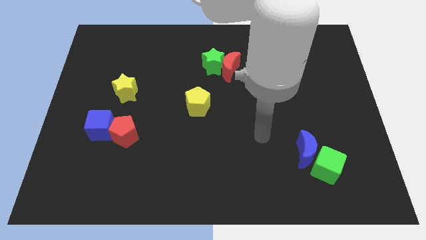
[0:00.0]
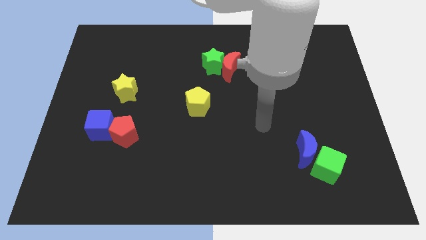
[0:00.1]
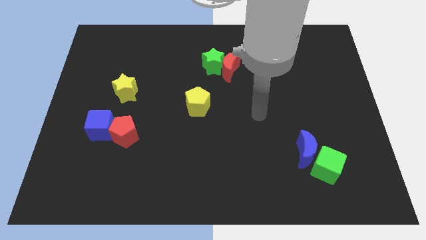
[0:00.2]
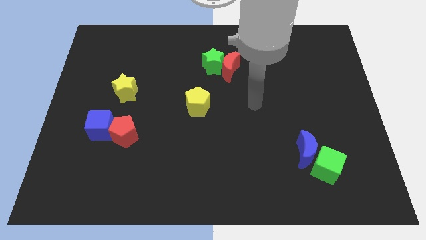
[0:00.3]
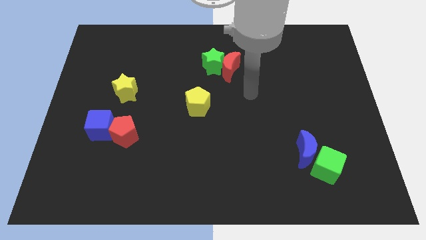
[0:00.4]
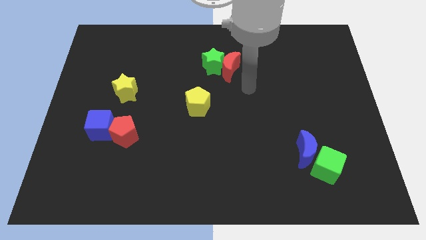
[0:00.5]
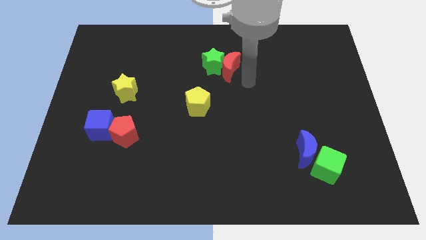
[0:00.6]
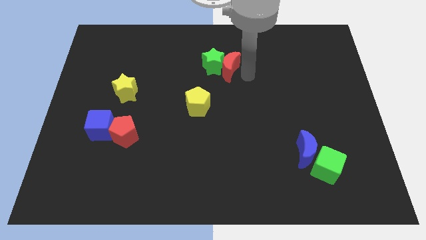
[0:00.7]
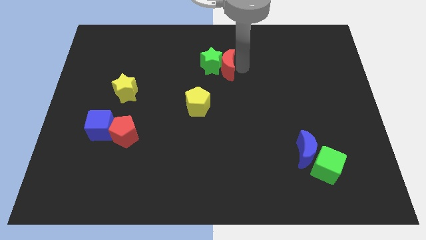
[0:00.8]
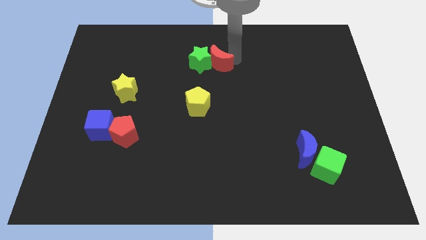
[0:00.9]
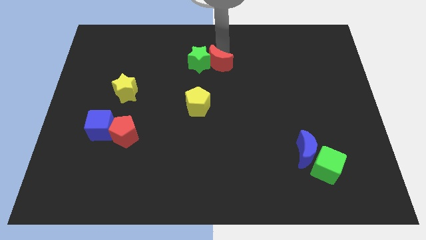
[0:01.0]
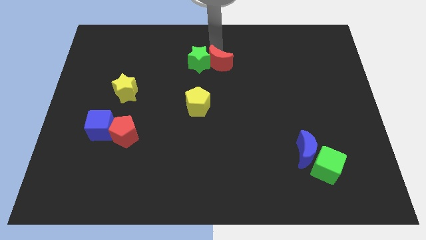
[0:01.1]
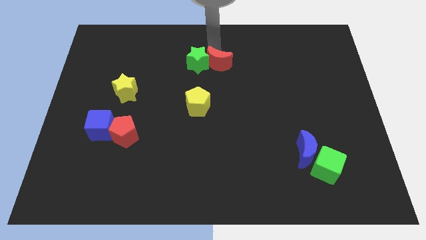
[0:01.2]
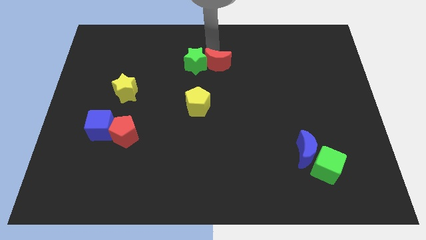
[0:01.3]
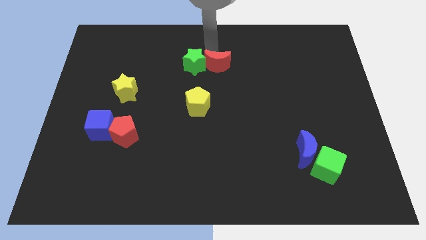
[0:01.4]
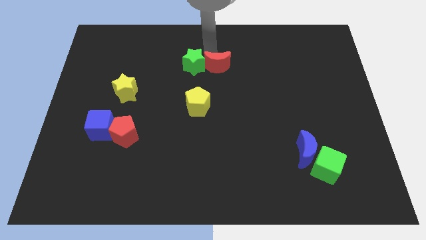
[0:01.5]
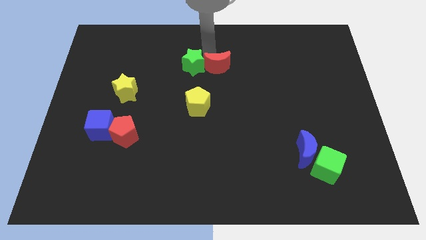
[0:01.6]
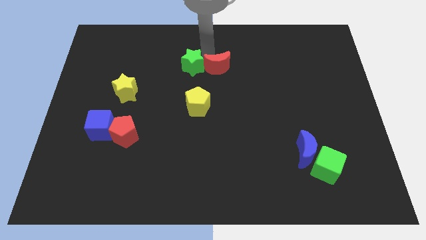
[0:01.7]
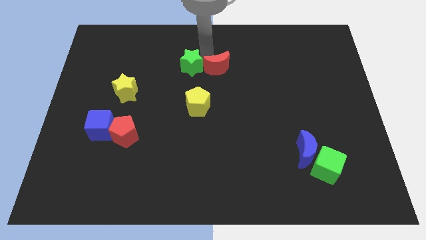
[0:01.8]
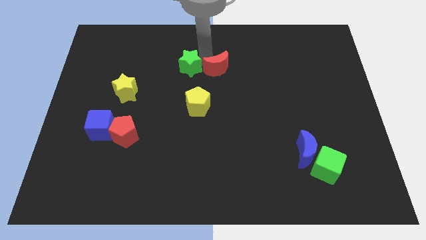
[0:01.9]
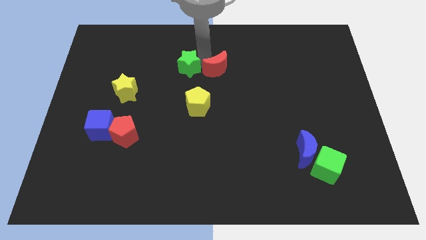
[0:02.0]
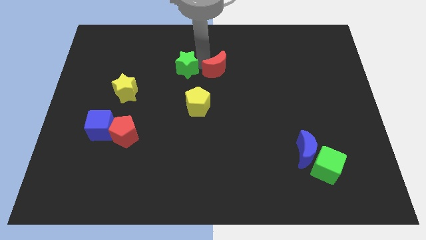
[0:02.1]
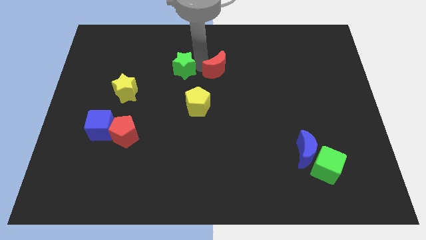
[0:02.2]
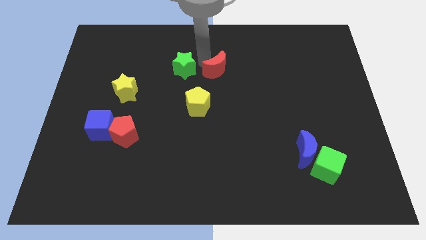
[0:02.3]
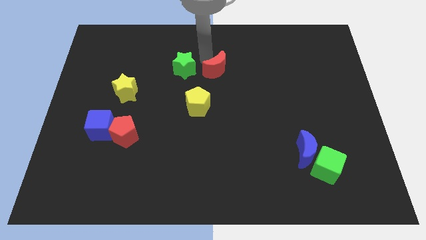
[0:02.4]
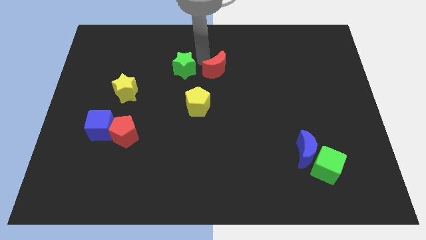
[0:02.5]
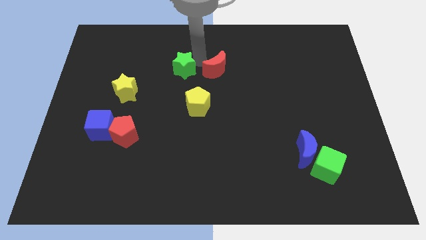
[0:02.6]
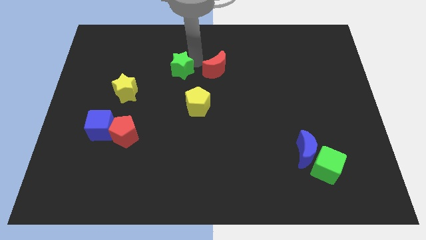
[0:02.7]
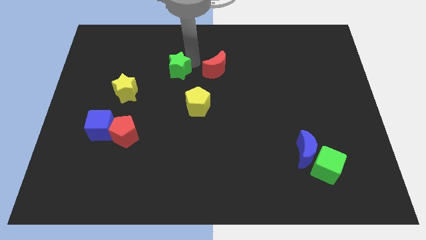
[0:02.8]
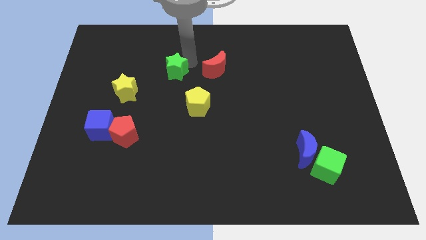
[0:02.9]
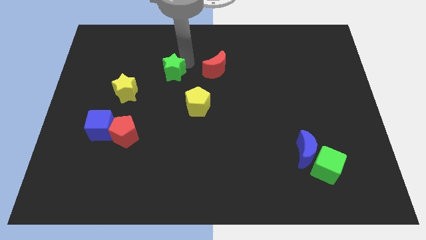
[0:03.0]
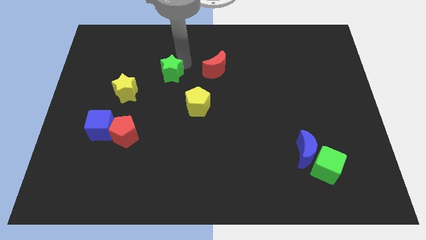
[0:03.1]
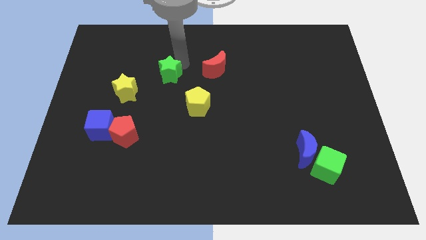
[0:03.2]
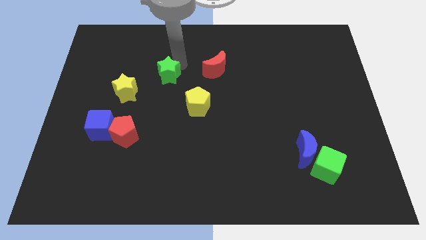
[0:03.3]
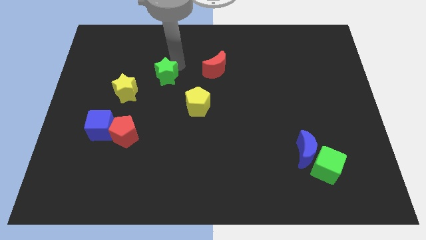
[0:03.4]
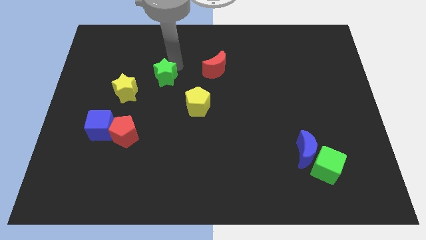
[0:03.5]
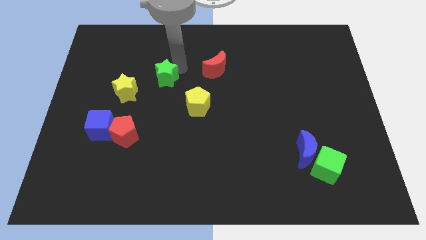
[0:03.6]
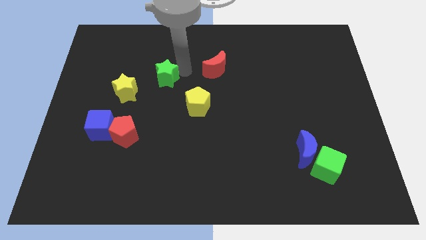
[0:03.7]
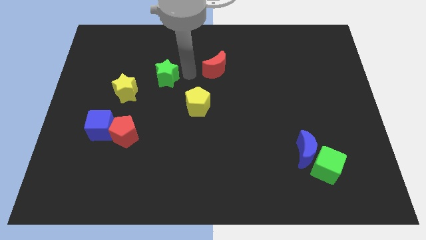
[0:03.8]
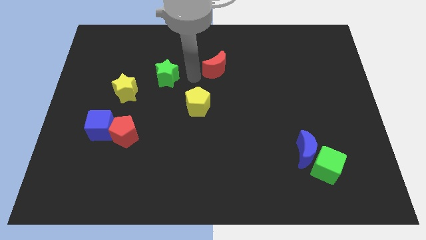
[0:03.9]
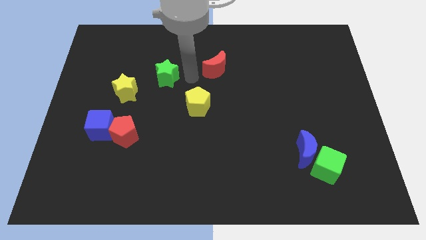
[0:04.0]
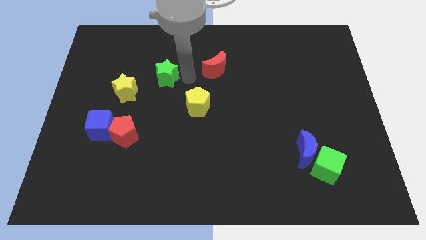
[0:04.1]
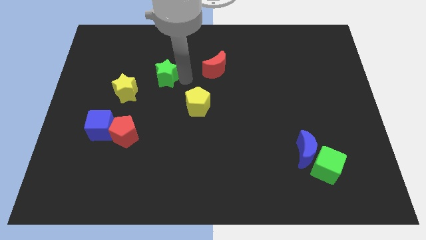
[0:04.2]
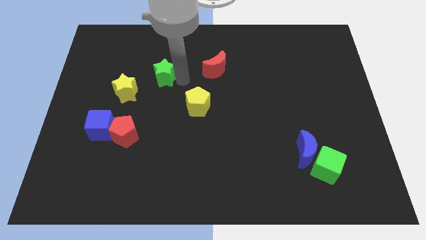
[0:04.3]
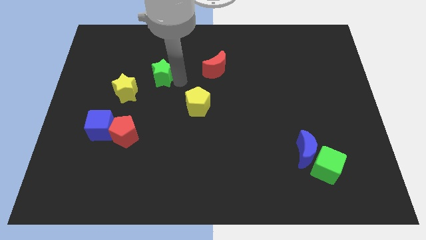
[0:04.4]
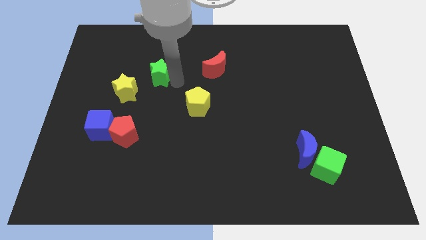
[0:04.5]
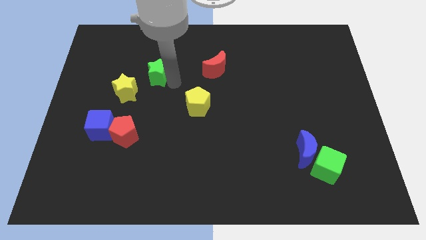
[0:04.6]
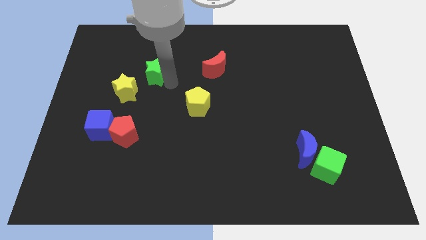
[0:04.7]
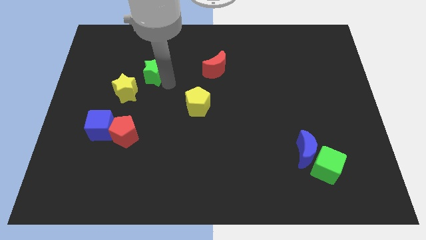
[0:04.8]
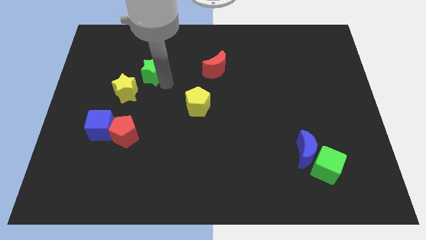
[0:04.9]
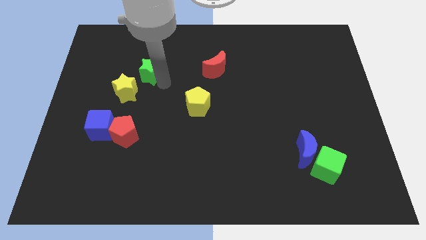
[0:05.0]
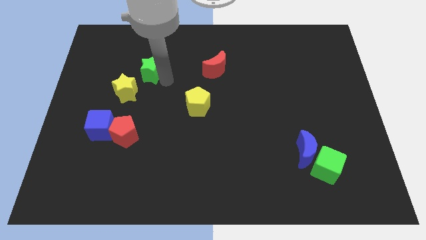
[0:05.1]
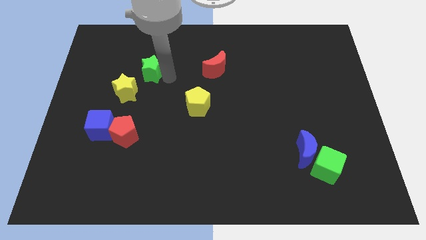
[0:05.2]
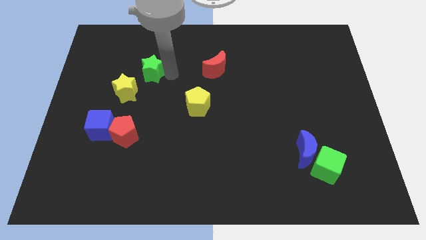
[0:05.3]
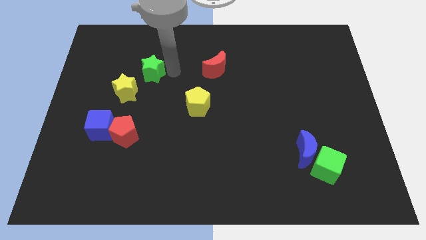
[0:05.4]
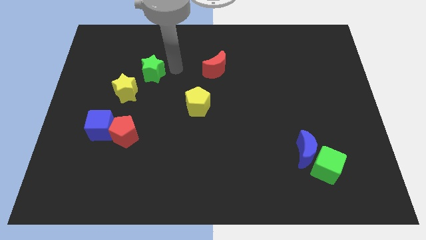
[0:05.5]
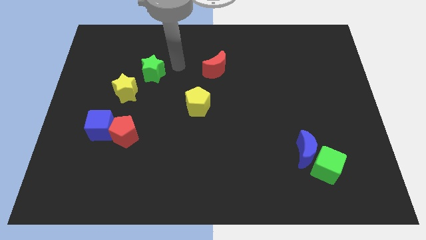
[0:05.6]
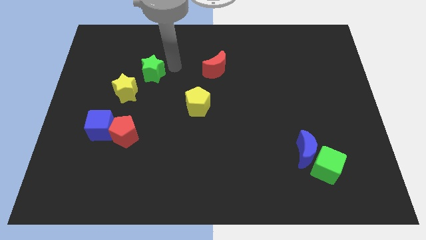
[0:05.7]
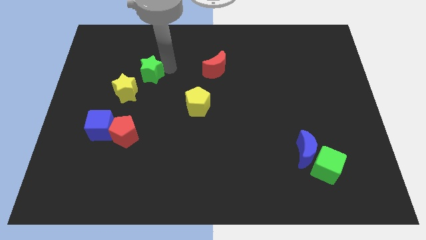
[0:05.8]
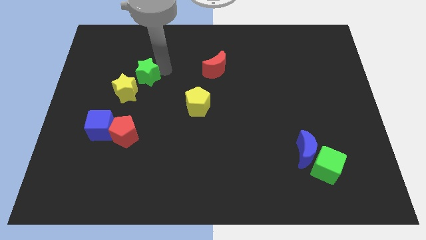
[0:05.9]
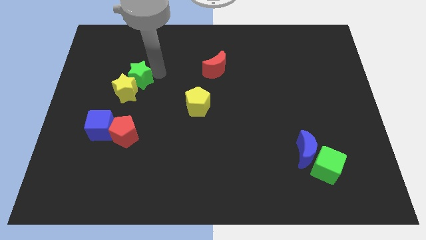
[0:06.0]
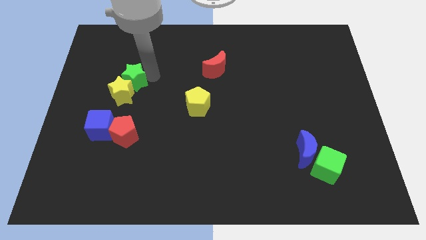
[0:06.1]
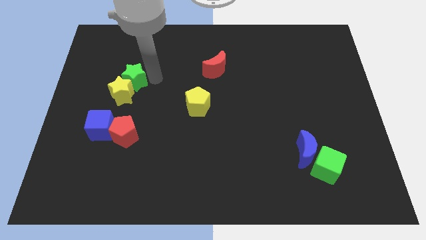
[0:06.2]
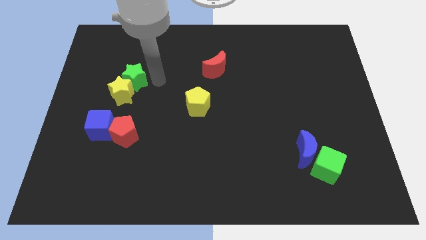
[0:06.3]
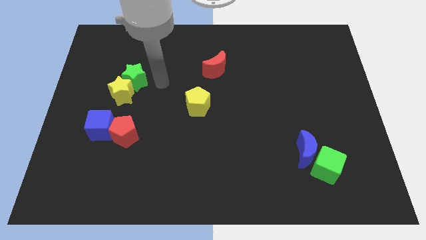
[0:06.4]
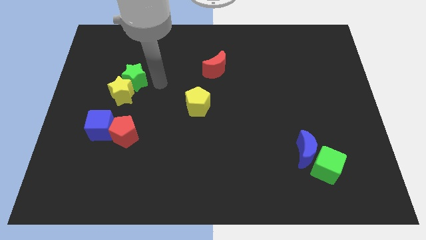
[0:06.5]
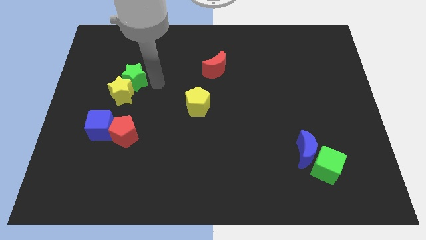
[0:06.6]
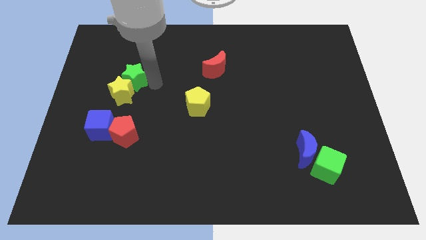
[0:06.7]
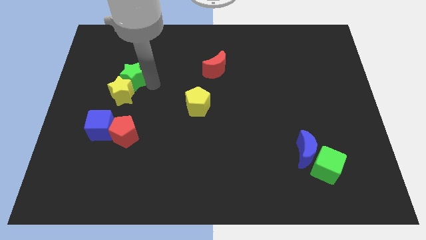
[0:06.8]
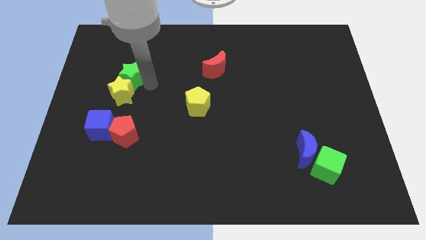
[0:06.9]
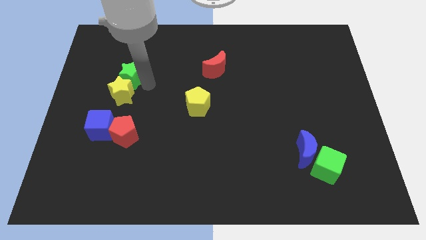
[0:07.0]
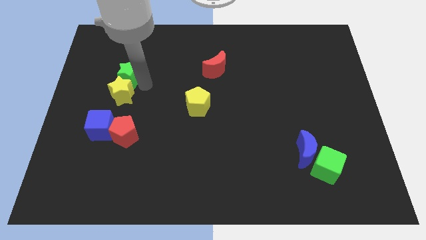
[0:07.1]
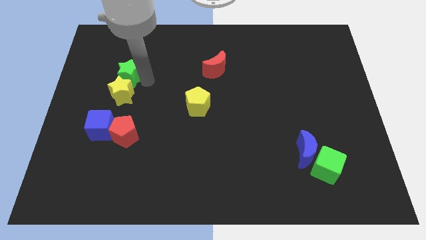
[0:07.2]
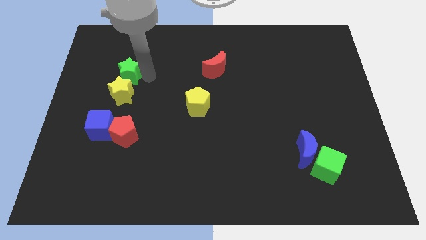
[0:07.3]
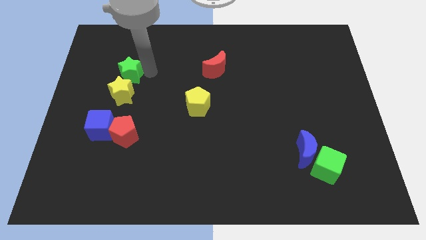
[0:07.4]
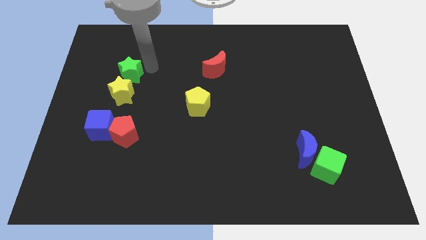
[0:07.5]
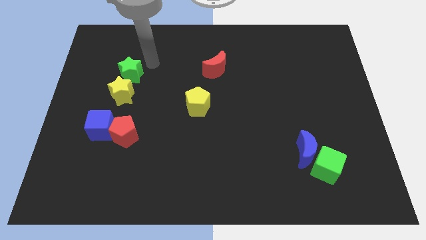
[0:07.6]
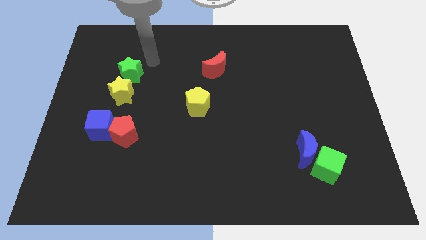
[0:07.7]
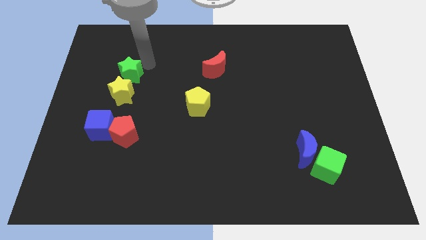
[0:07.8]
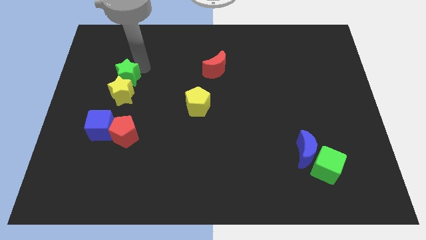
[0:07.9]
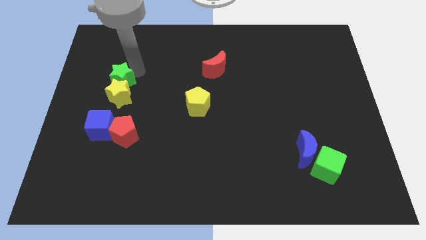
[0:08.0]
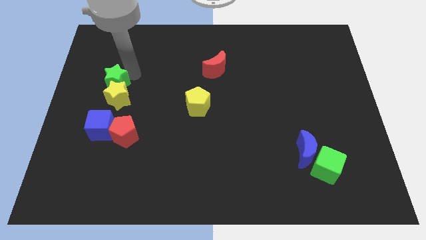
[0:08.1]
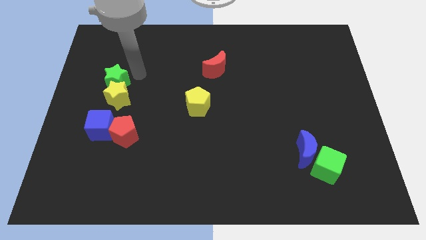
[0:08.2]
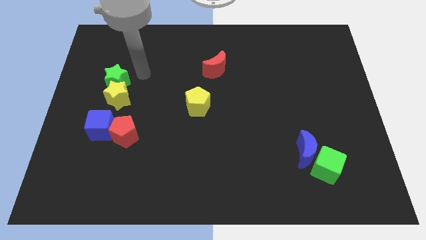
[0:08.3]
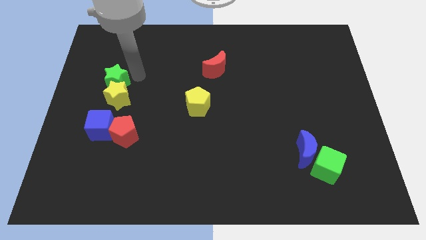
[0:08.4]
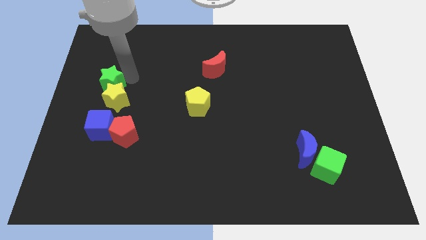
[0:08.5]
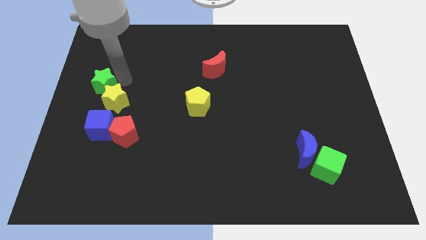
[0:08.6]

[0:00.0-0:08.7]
move the green star to the center left
